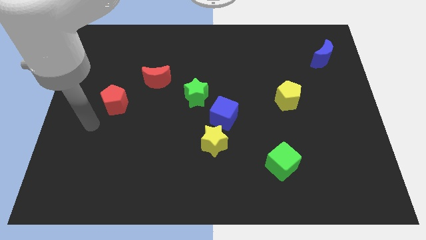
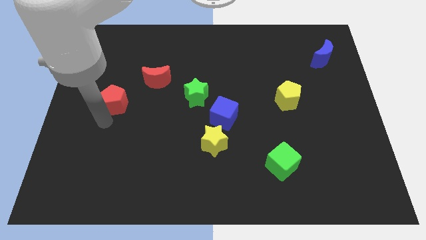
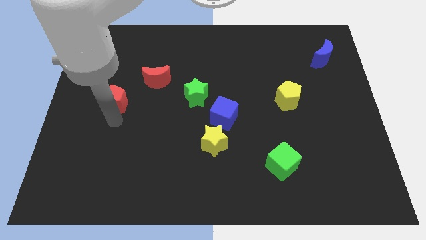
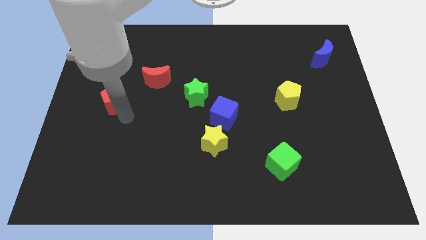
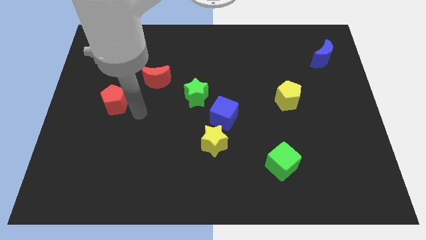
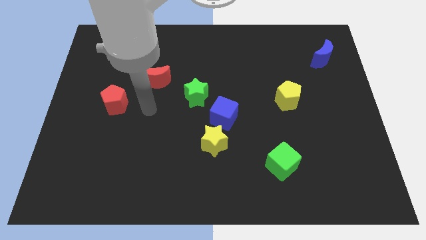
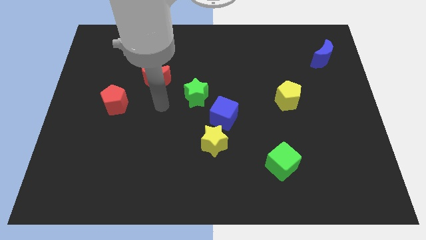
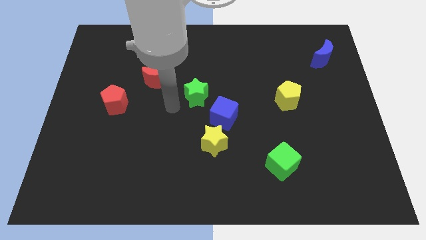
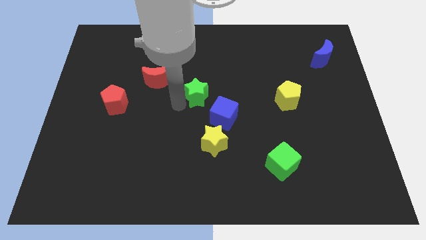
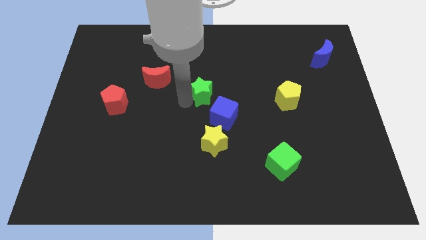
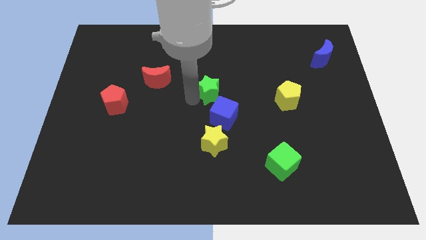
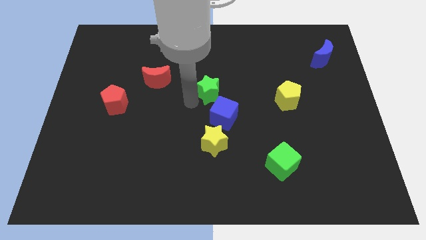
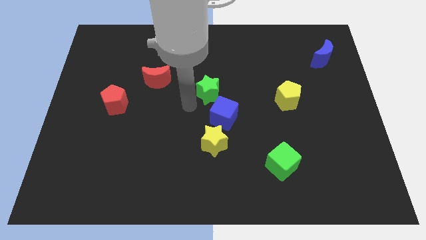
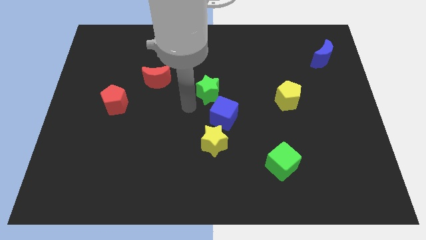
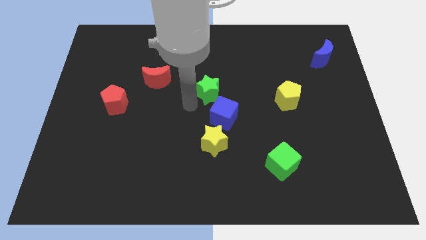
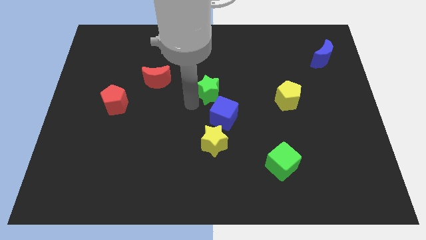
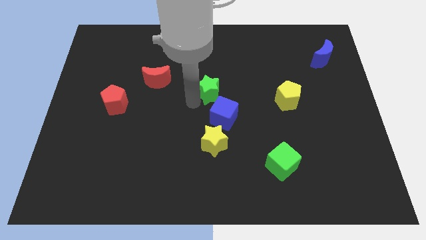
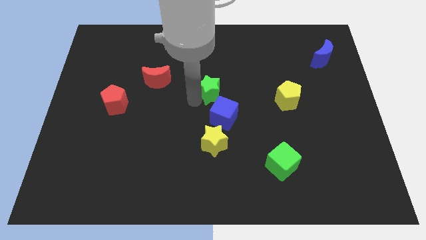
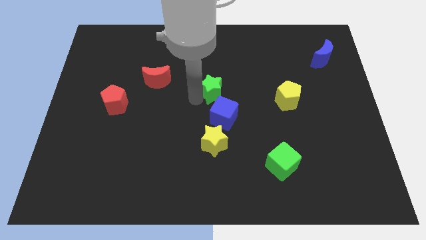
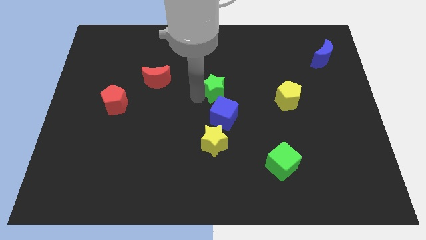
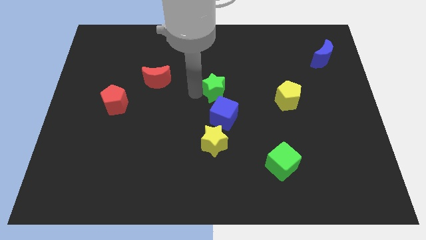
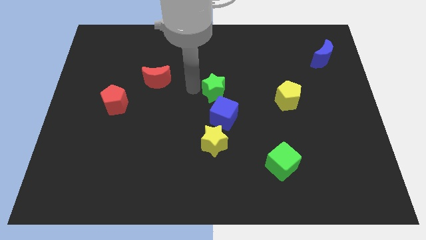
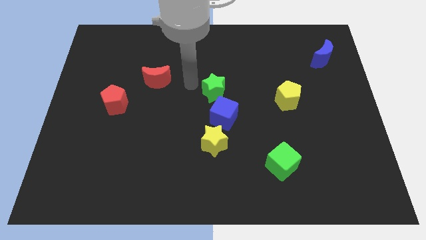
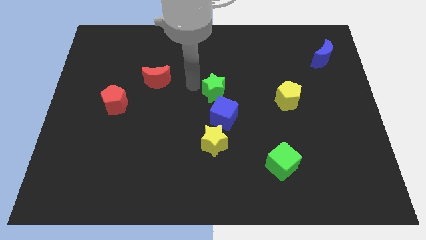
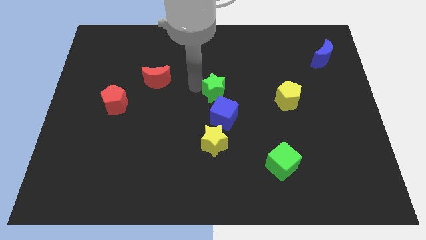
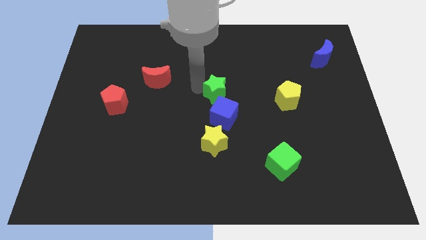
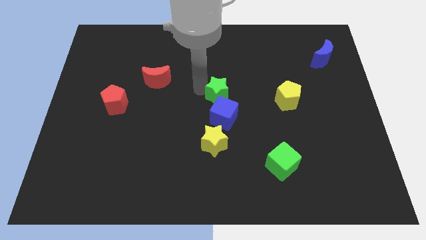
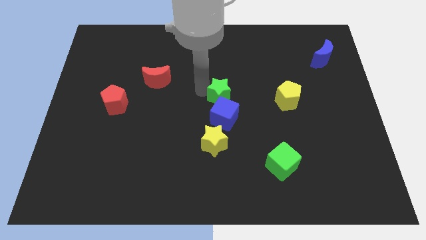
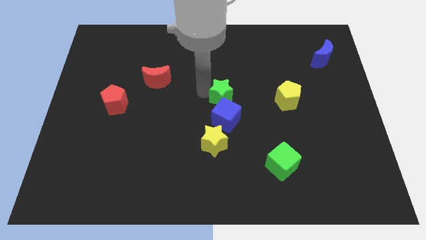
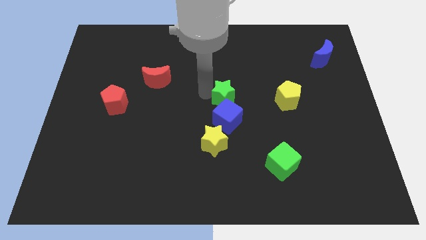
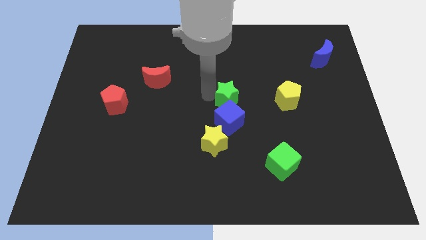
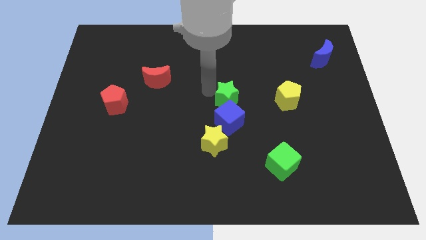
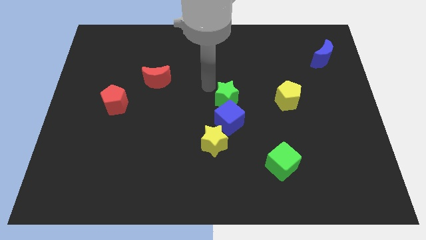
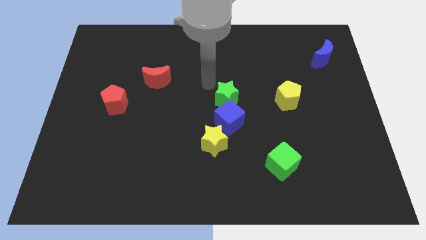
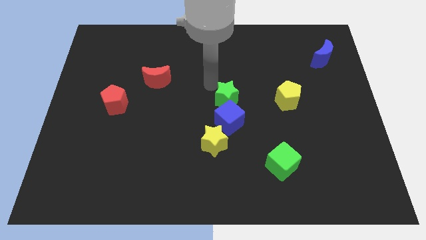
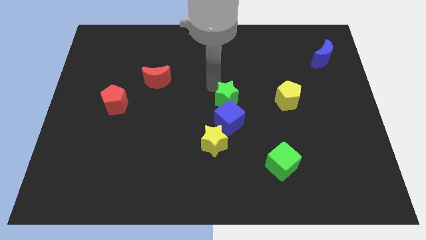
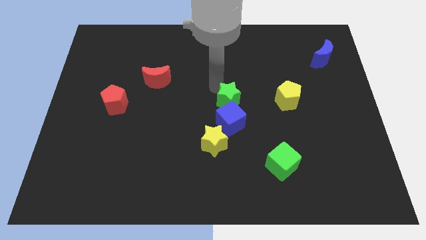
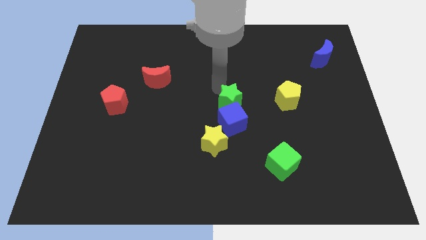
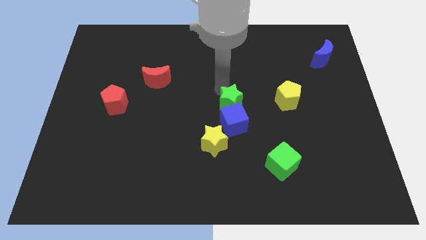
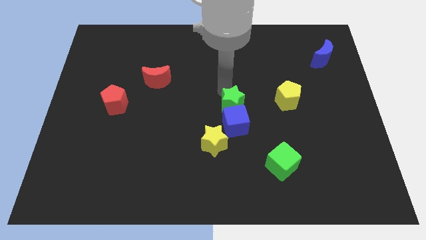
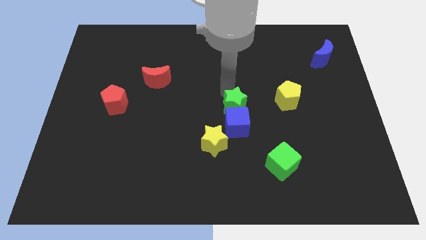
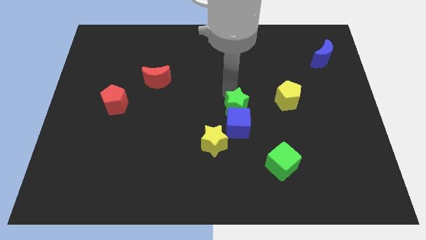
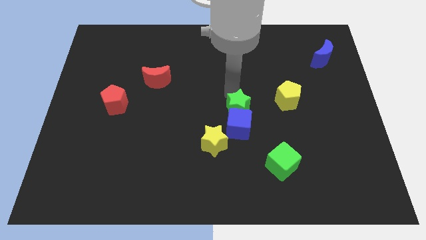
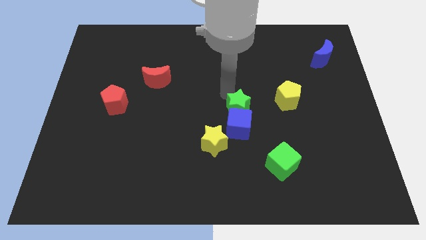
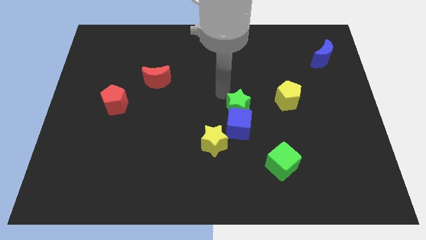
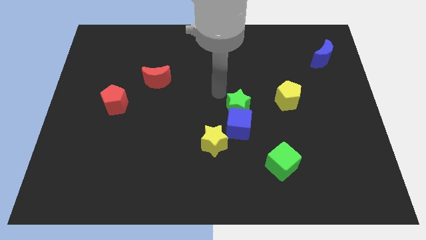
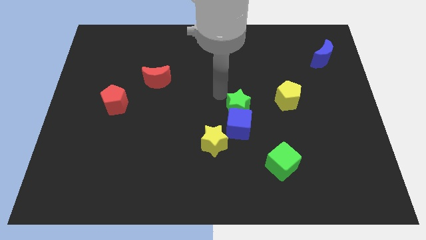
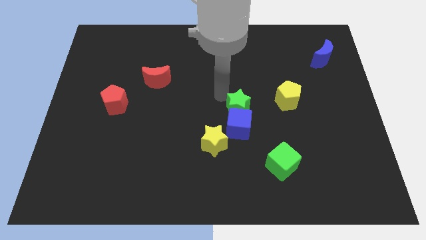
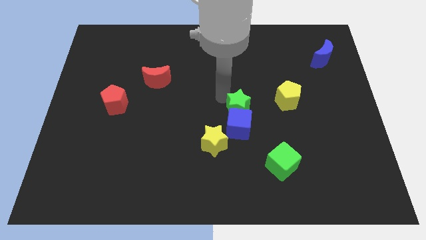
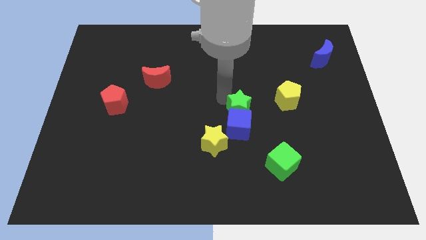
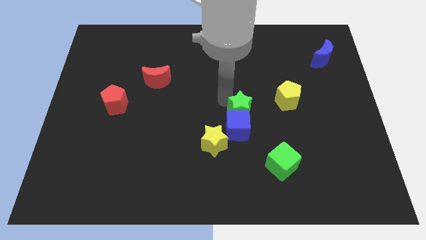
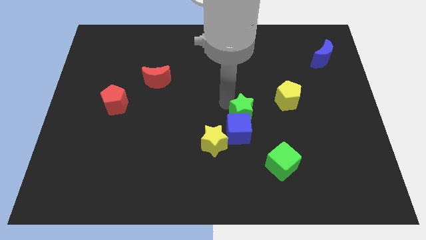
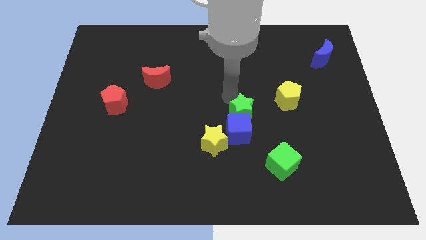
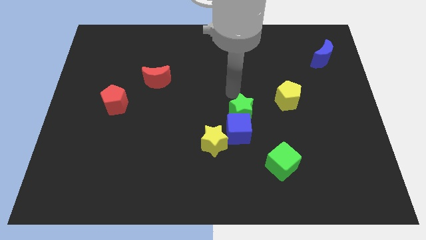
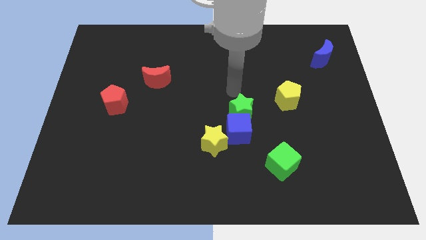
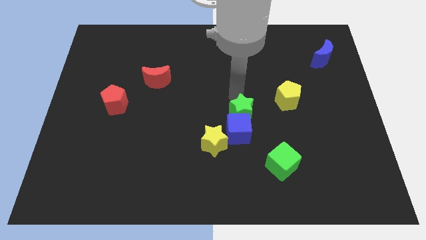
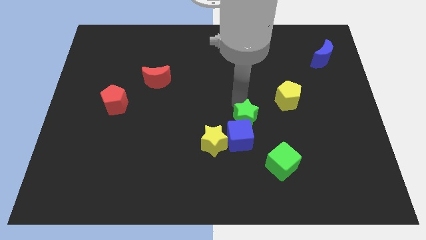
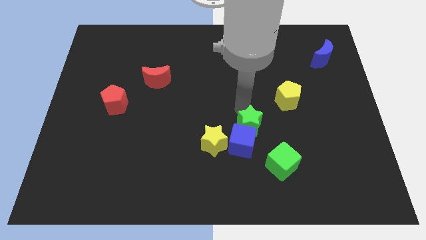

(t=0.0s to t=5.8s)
push the green star diagonally up and to the left of the green cube

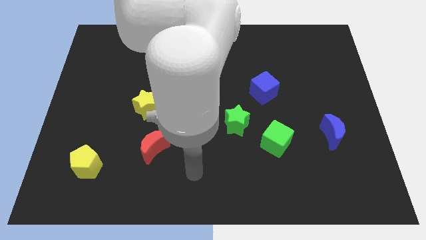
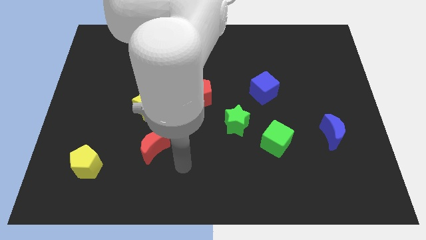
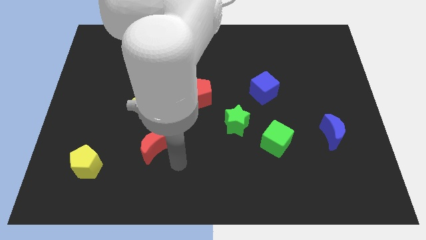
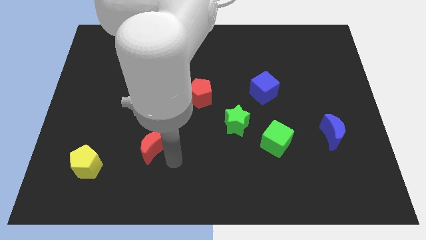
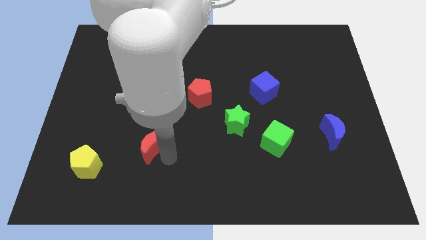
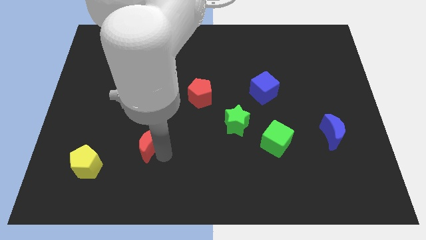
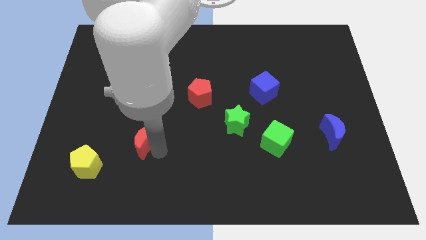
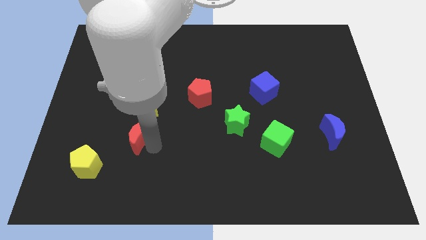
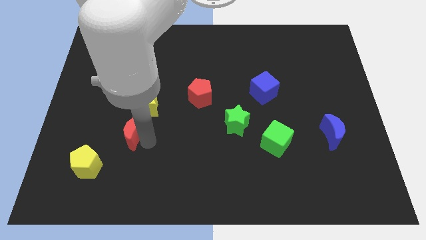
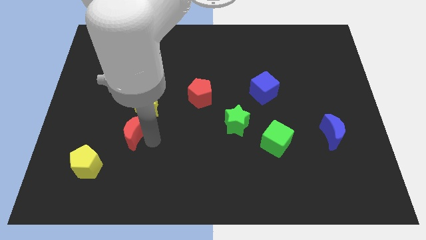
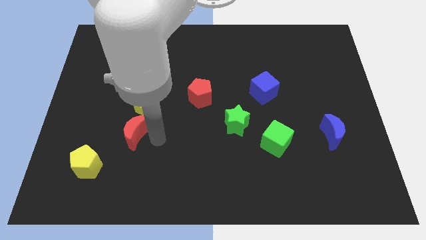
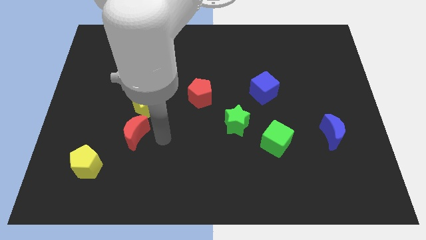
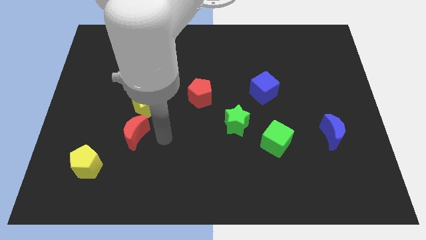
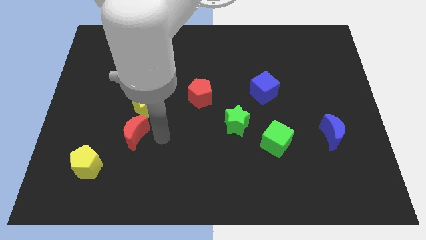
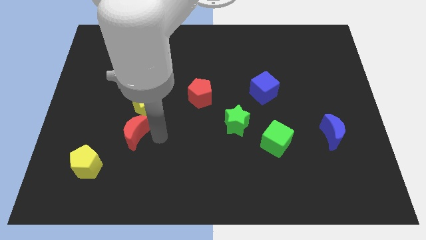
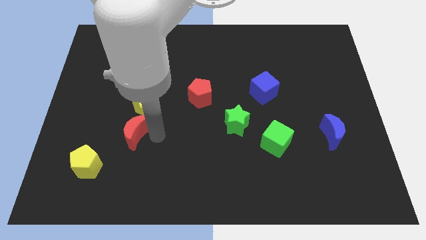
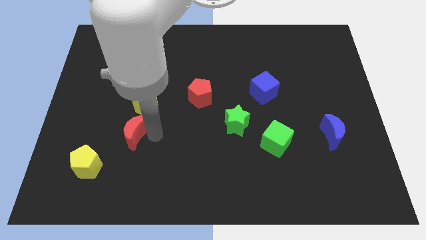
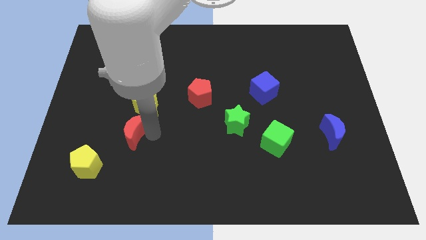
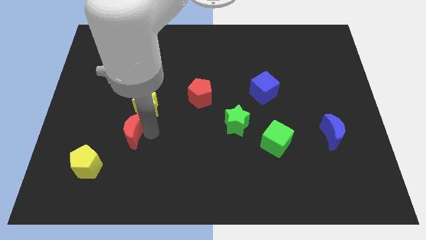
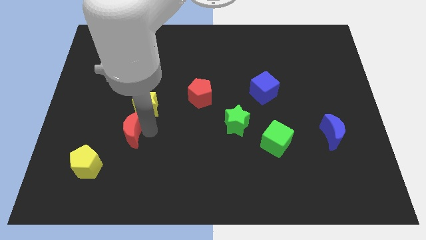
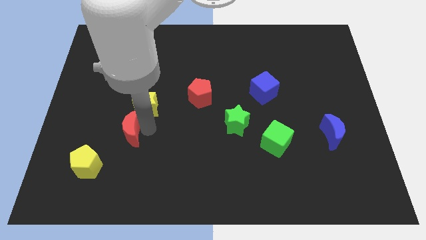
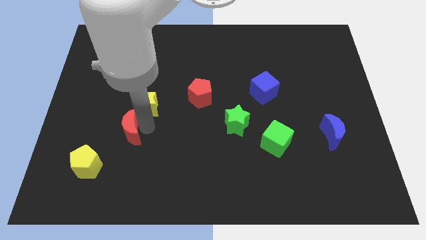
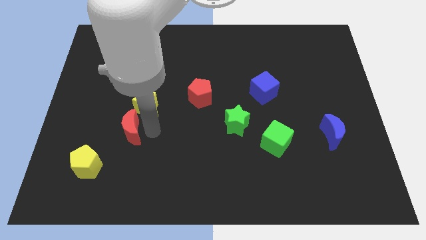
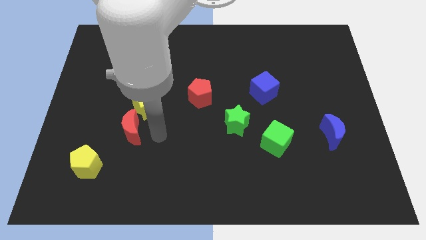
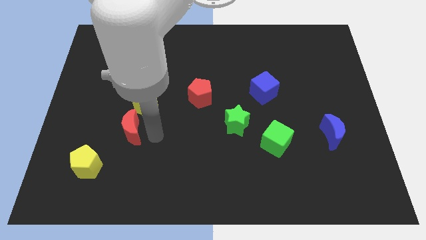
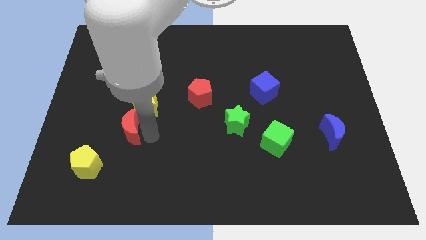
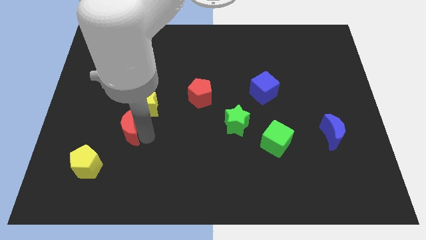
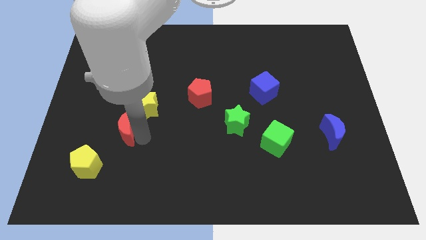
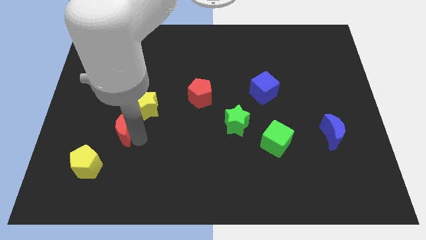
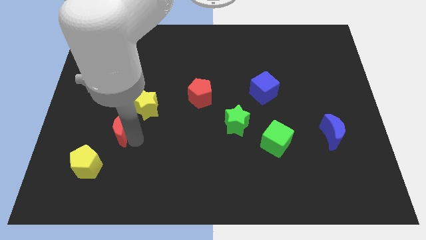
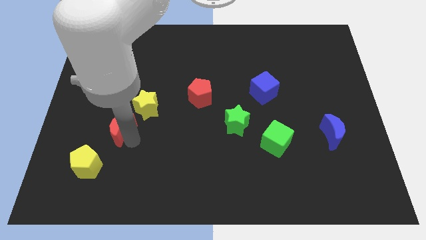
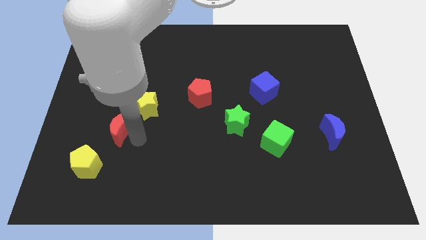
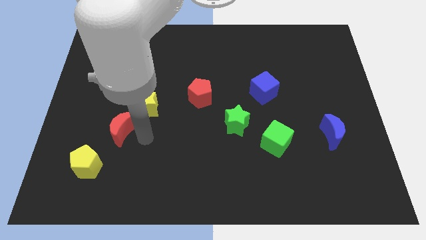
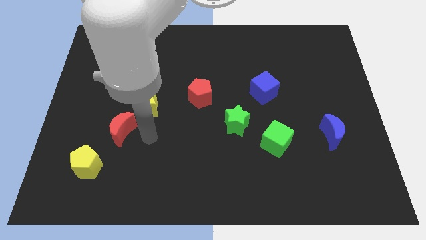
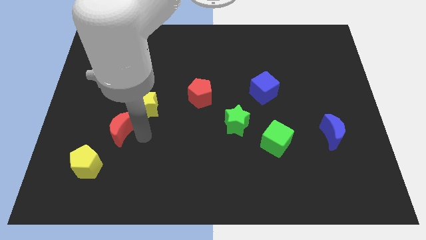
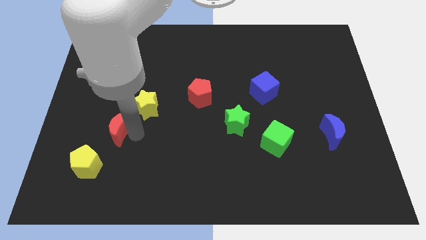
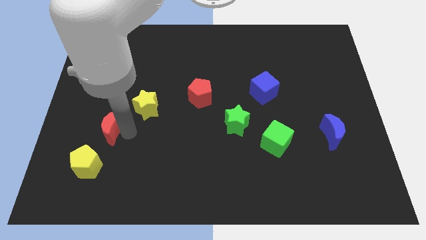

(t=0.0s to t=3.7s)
slide the red moon above the yellow pentagon
